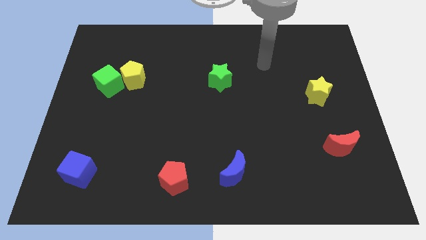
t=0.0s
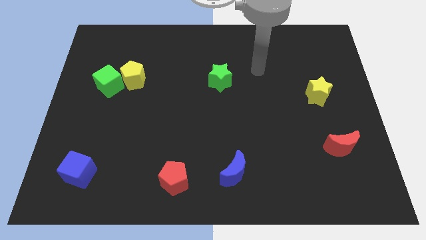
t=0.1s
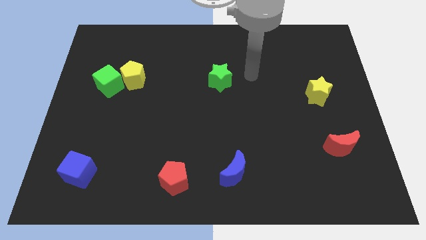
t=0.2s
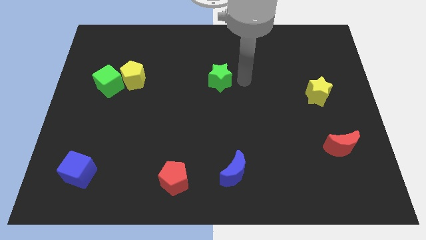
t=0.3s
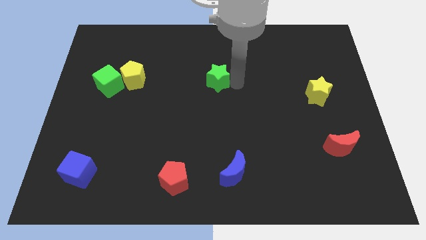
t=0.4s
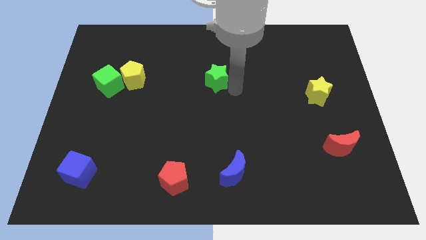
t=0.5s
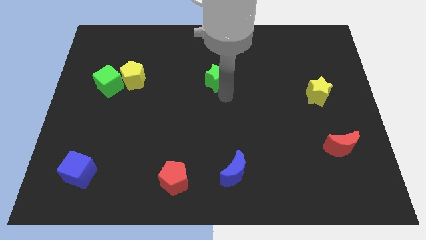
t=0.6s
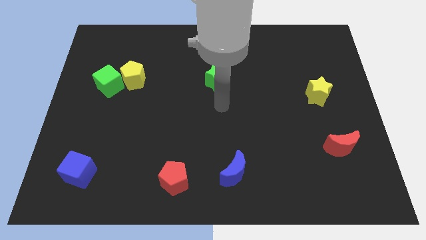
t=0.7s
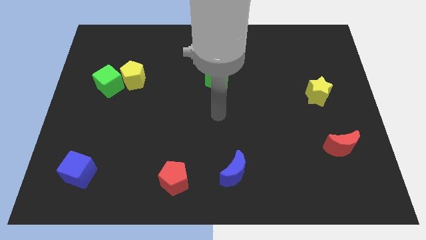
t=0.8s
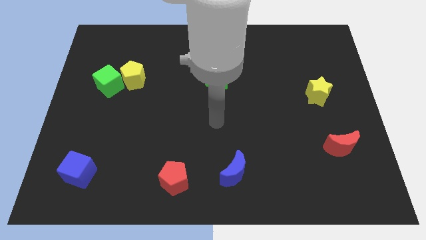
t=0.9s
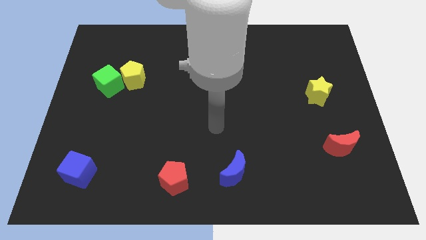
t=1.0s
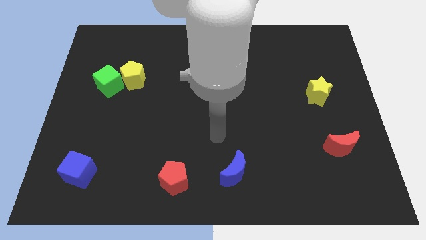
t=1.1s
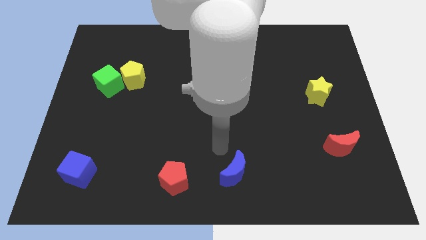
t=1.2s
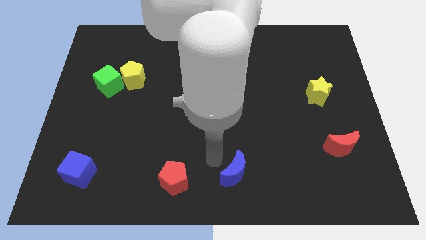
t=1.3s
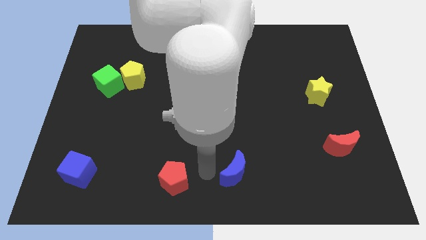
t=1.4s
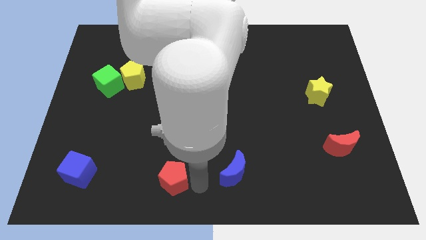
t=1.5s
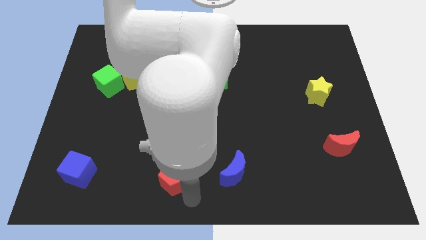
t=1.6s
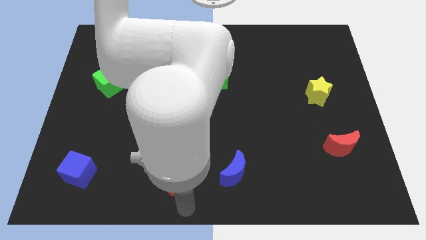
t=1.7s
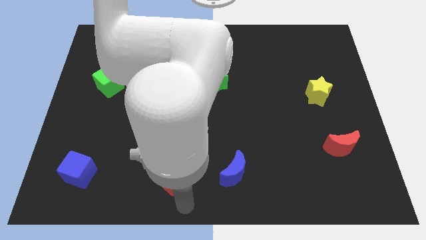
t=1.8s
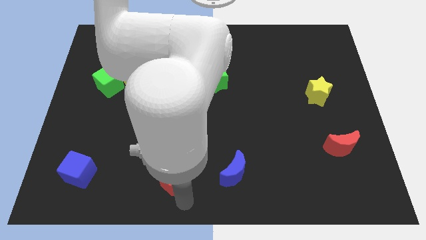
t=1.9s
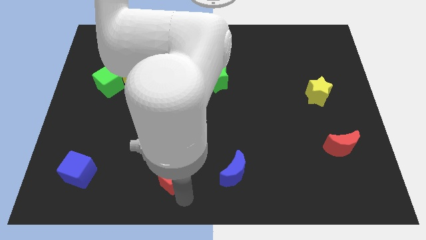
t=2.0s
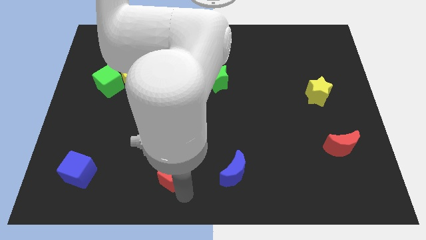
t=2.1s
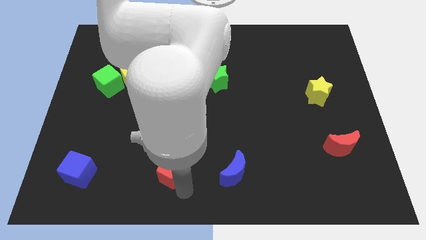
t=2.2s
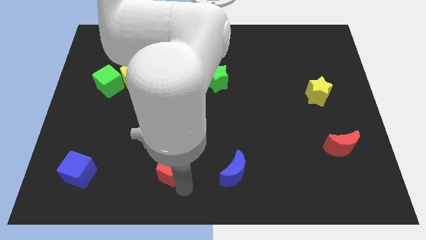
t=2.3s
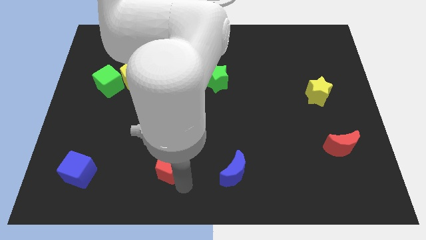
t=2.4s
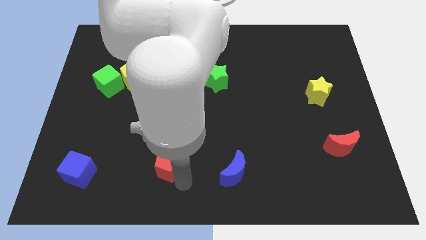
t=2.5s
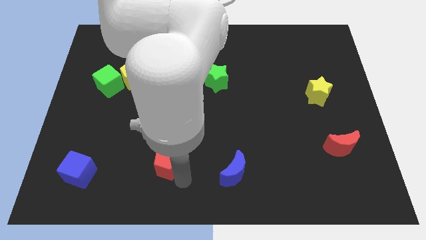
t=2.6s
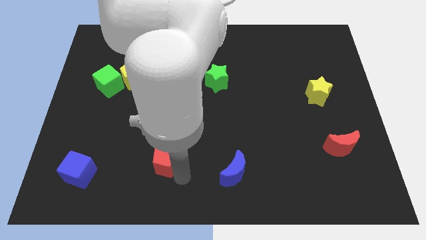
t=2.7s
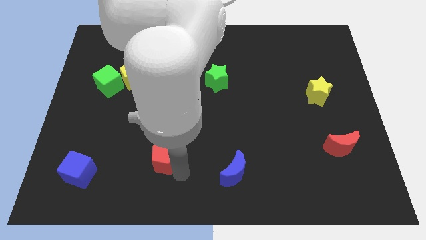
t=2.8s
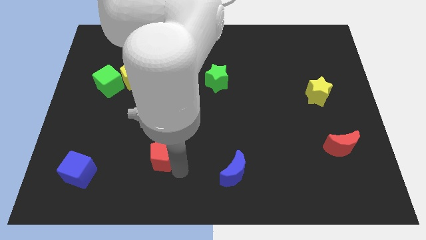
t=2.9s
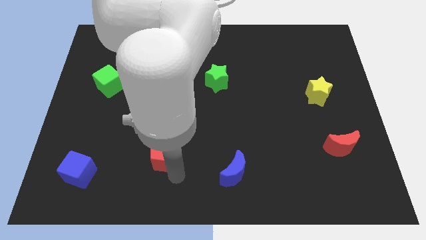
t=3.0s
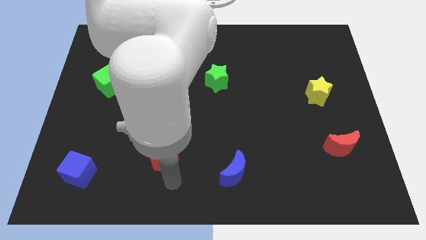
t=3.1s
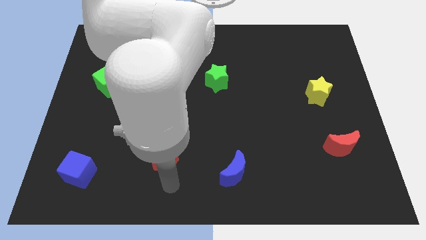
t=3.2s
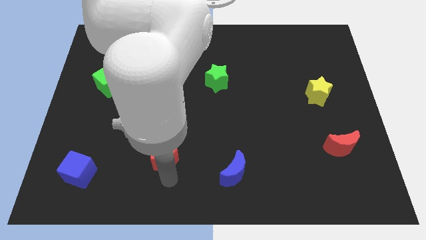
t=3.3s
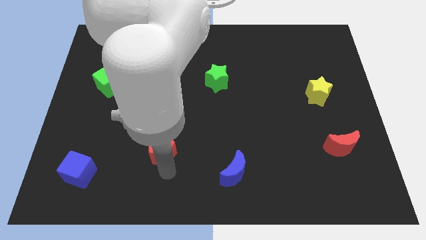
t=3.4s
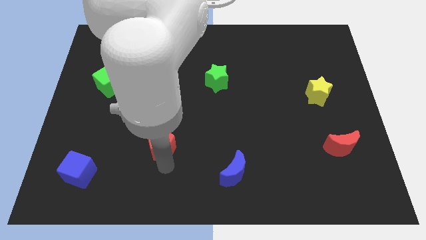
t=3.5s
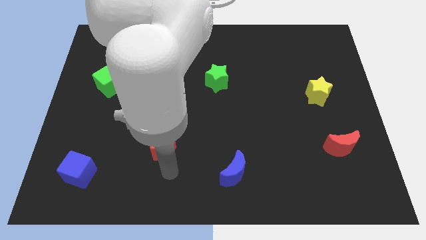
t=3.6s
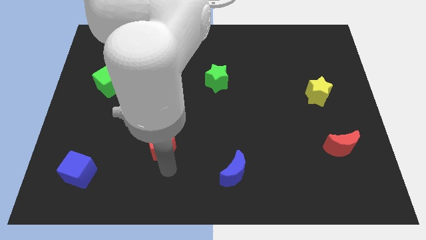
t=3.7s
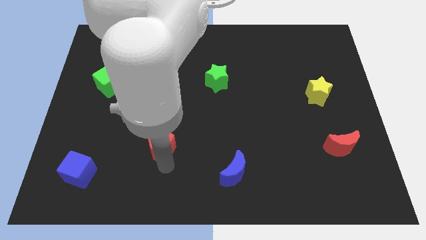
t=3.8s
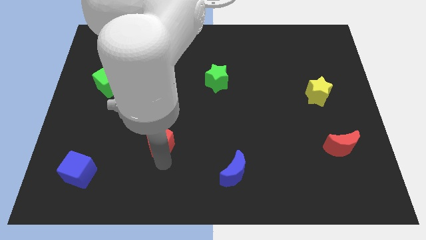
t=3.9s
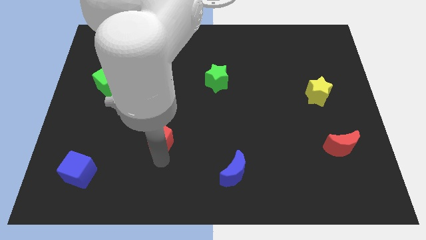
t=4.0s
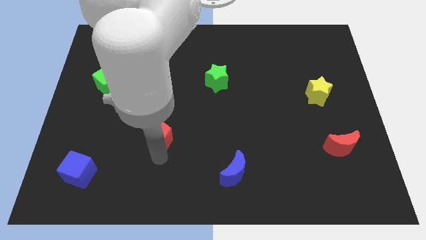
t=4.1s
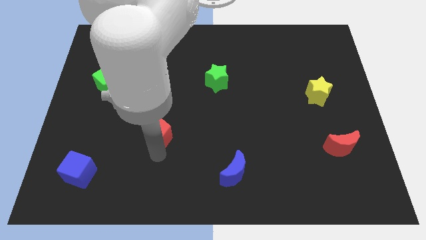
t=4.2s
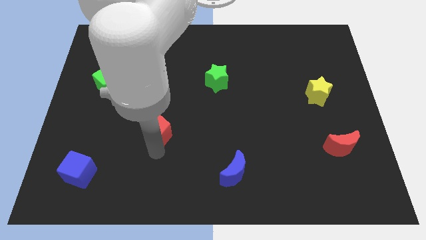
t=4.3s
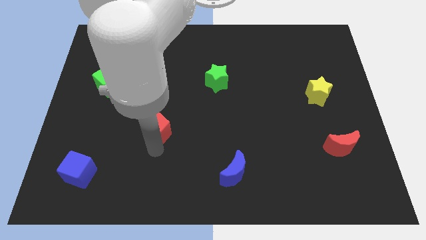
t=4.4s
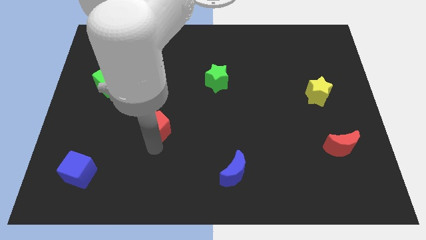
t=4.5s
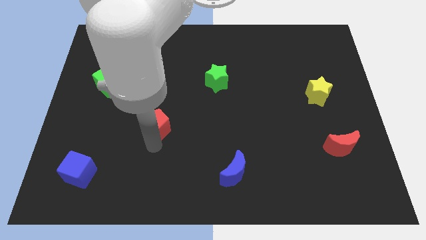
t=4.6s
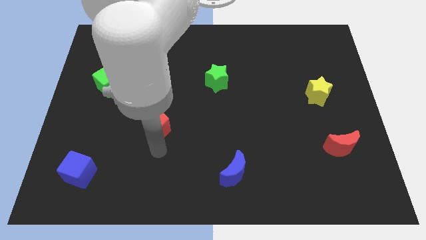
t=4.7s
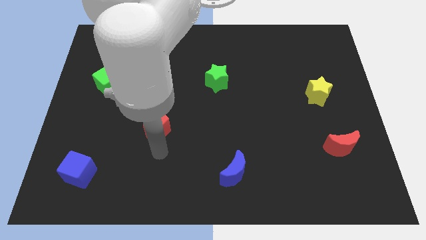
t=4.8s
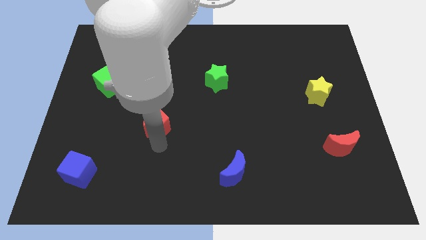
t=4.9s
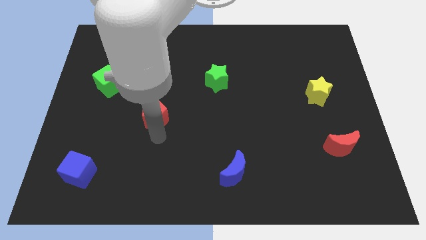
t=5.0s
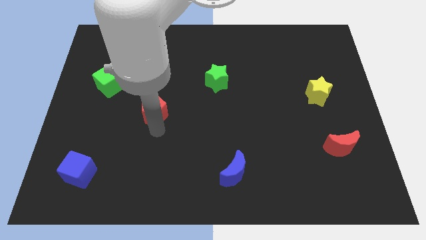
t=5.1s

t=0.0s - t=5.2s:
put the red pentagon diagonally down and to the right of the yellow pentagon

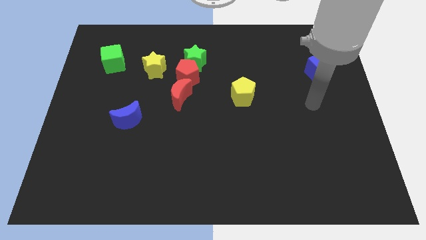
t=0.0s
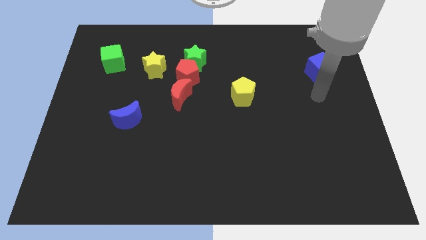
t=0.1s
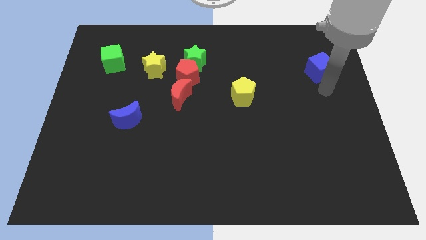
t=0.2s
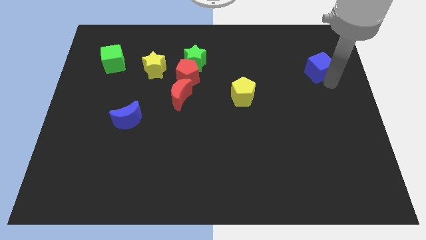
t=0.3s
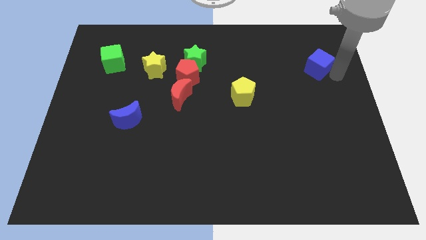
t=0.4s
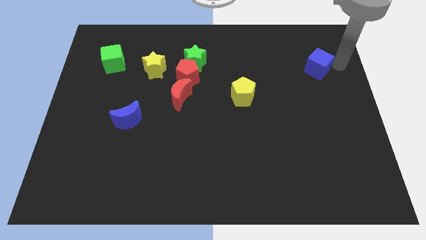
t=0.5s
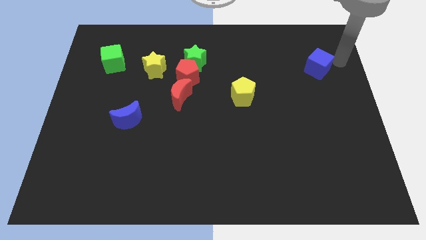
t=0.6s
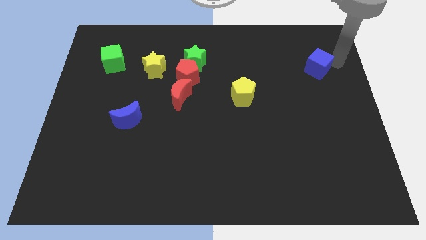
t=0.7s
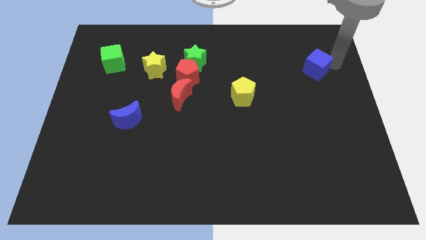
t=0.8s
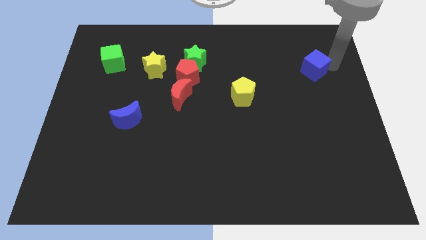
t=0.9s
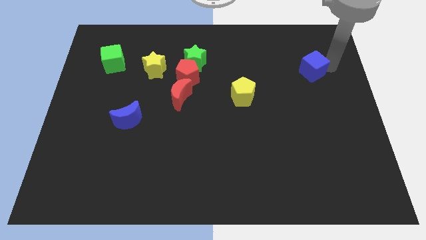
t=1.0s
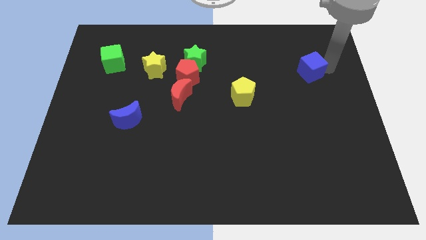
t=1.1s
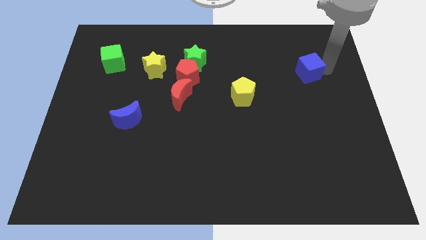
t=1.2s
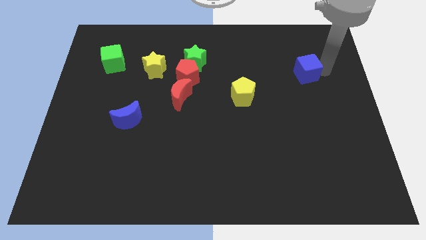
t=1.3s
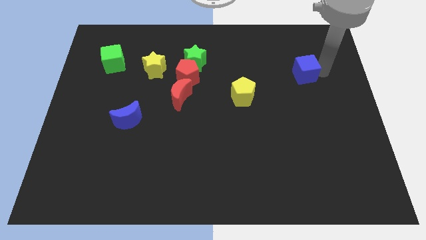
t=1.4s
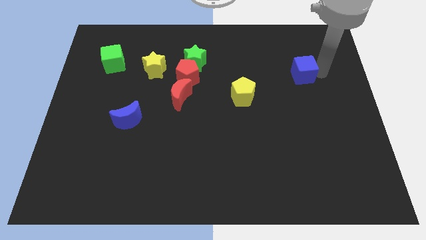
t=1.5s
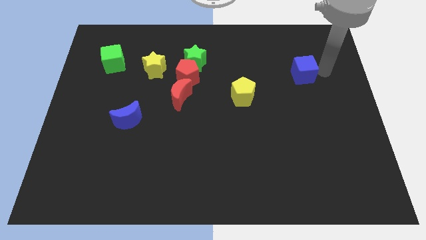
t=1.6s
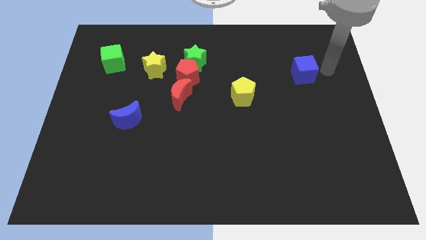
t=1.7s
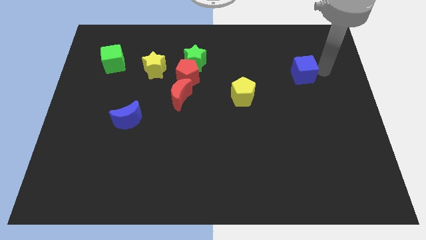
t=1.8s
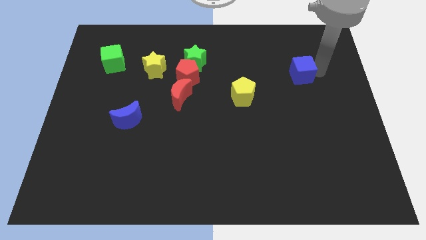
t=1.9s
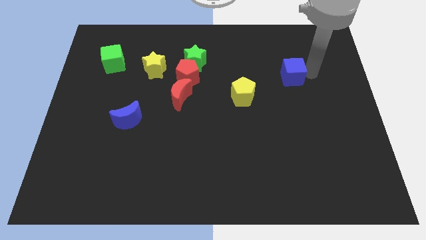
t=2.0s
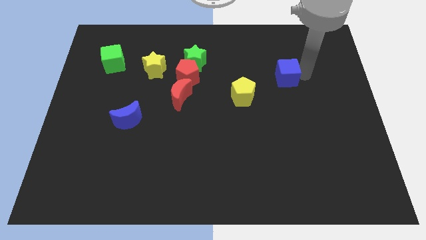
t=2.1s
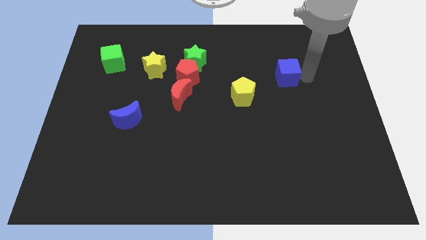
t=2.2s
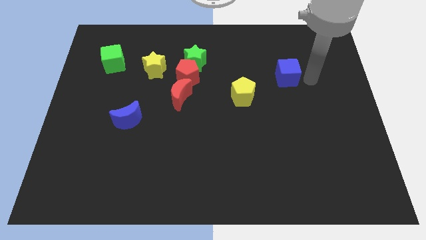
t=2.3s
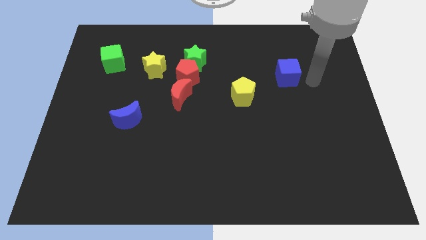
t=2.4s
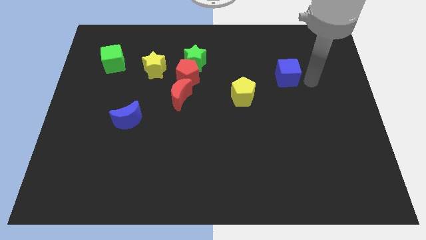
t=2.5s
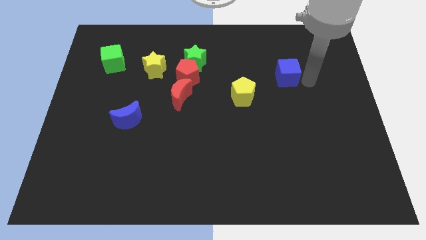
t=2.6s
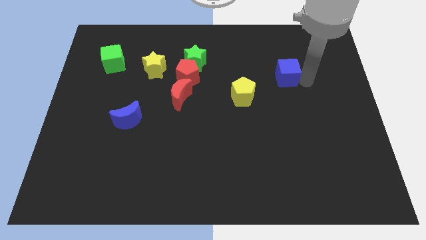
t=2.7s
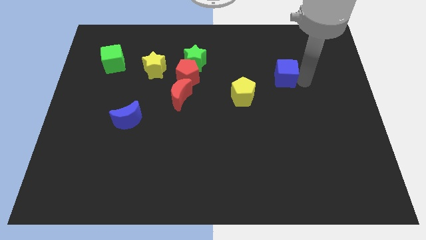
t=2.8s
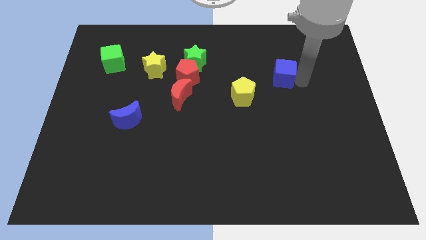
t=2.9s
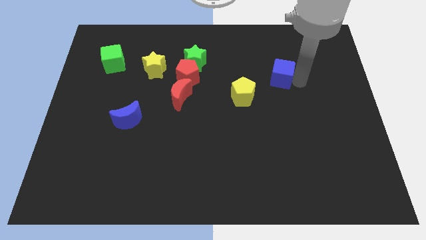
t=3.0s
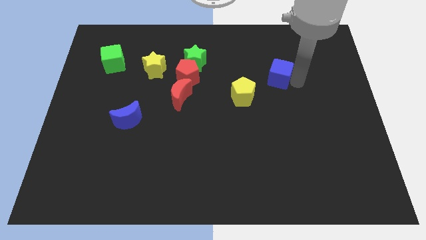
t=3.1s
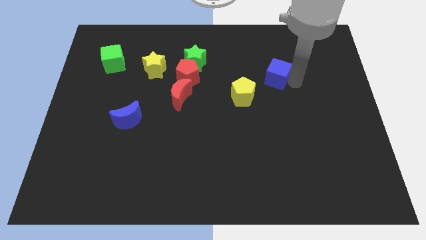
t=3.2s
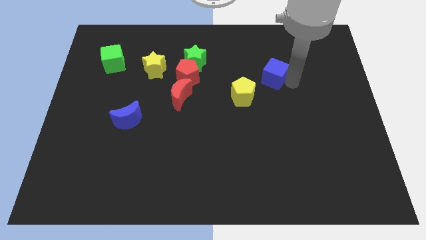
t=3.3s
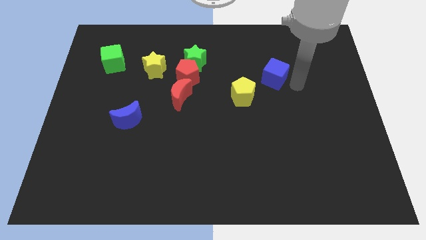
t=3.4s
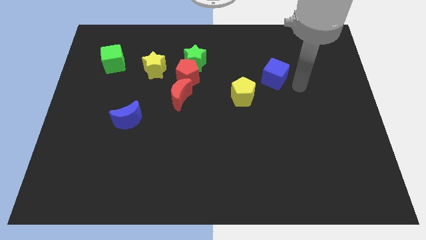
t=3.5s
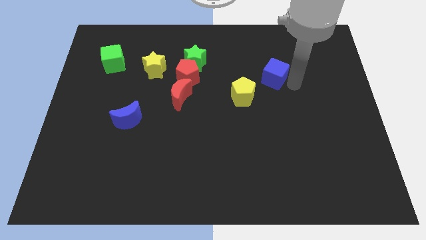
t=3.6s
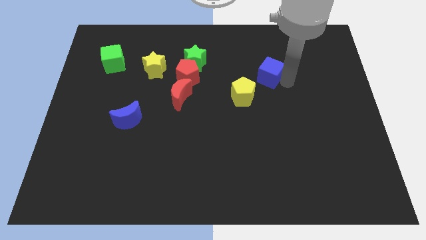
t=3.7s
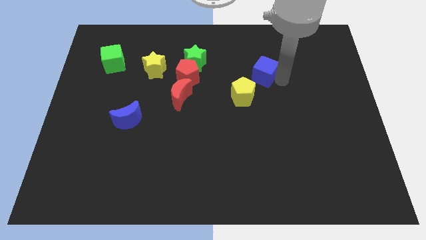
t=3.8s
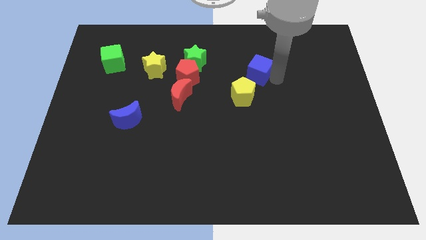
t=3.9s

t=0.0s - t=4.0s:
put the blue cube above the yellow pentagon
